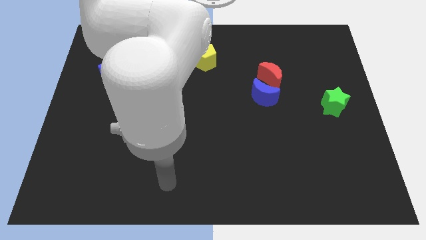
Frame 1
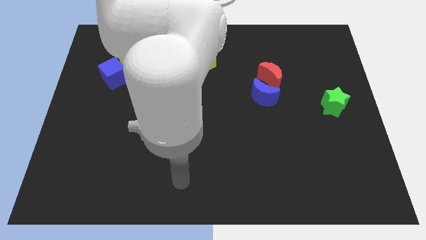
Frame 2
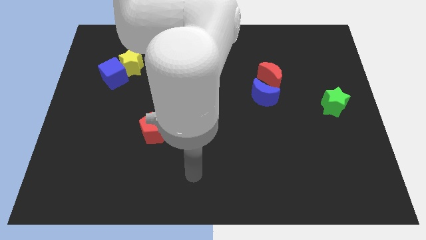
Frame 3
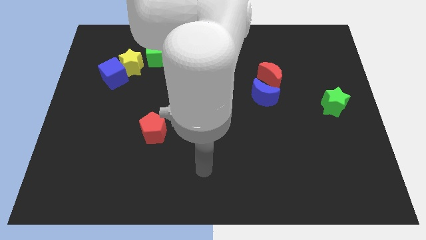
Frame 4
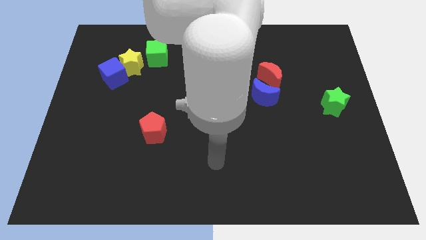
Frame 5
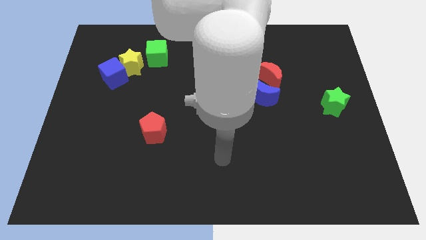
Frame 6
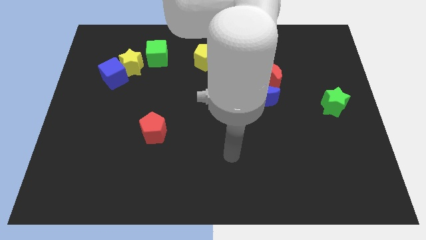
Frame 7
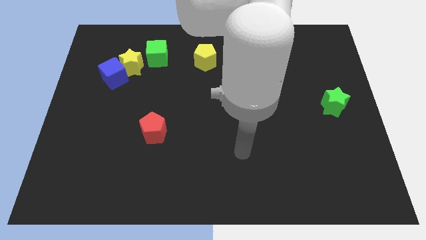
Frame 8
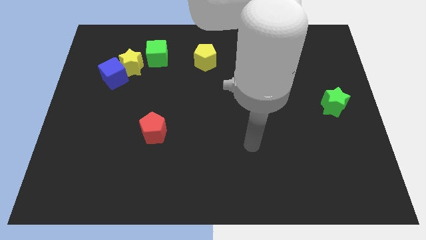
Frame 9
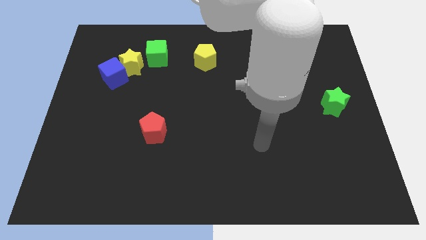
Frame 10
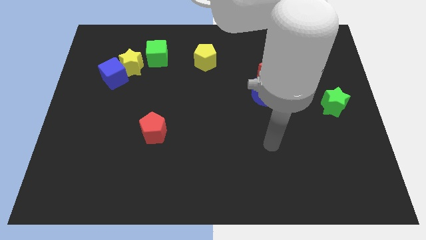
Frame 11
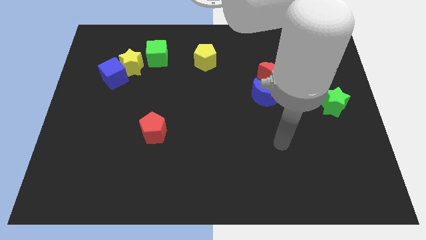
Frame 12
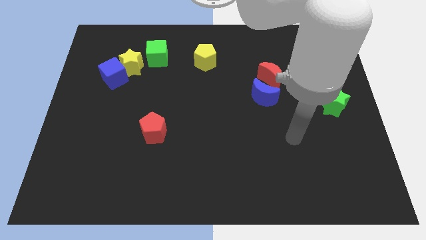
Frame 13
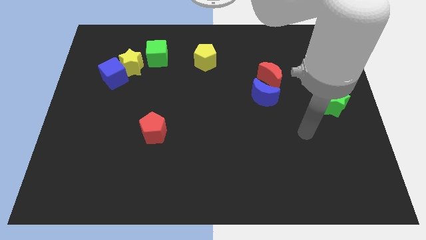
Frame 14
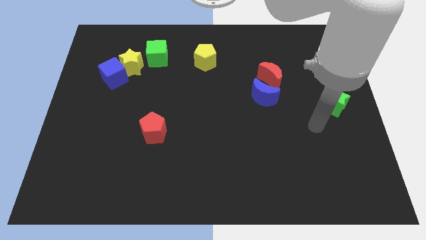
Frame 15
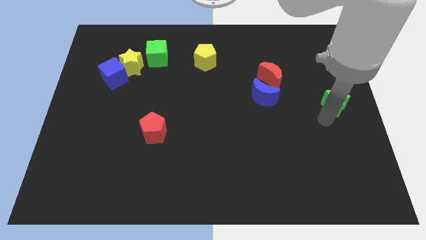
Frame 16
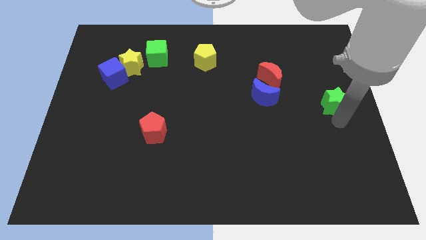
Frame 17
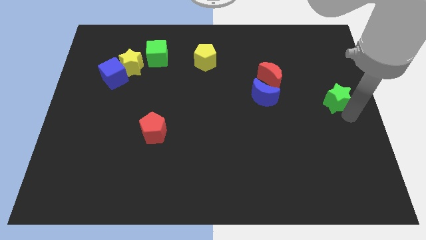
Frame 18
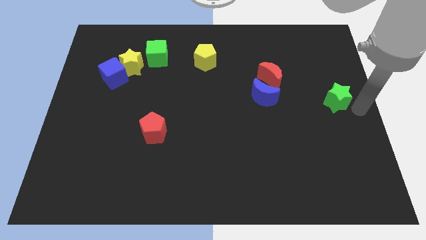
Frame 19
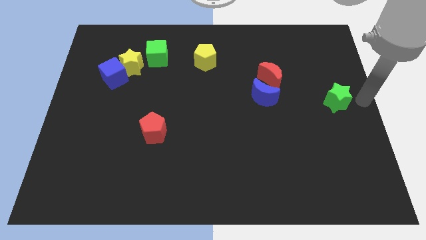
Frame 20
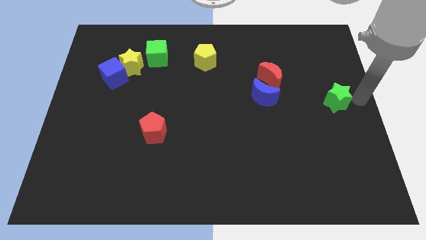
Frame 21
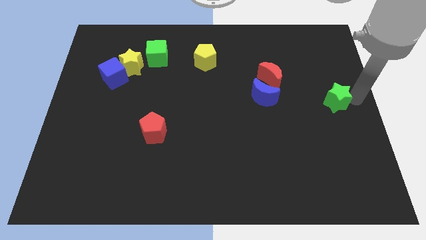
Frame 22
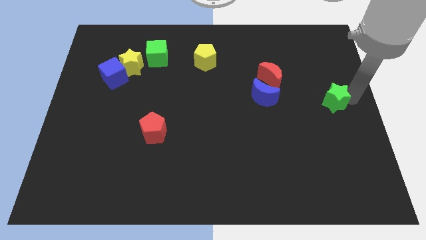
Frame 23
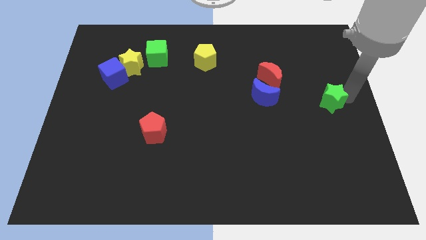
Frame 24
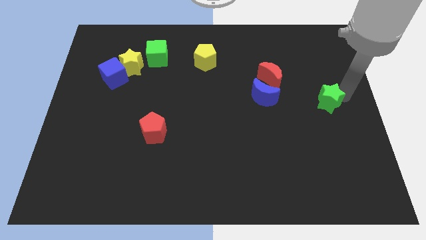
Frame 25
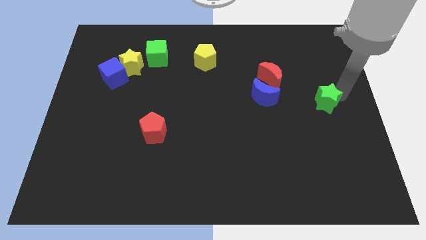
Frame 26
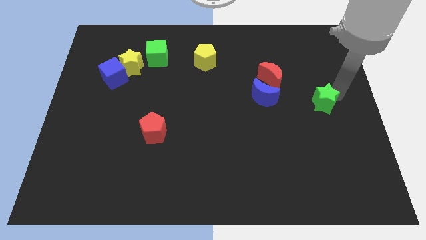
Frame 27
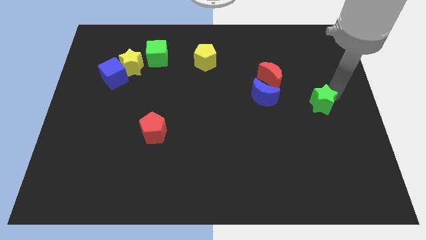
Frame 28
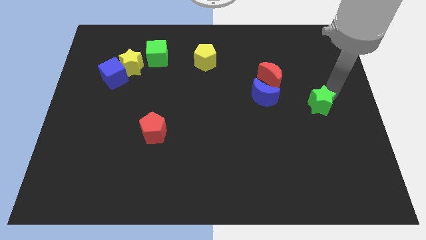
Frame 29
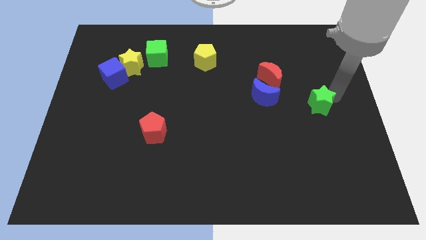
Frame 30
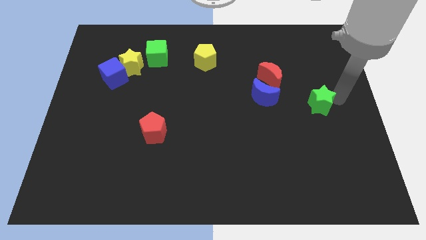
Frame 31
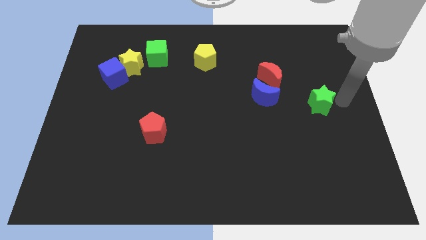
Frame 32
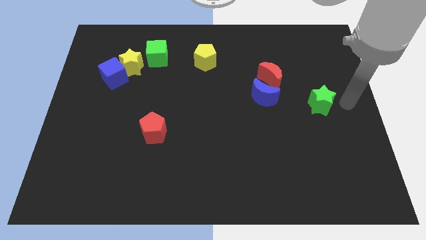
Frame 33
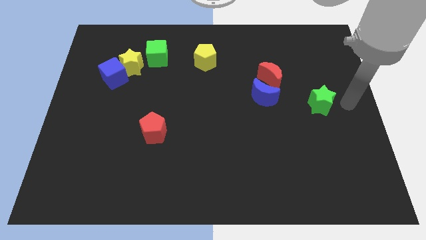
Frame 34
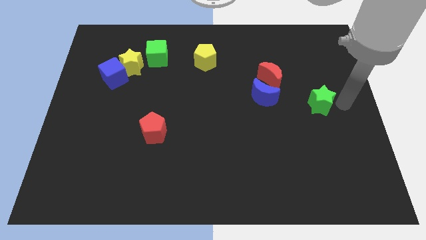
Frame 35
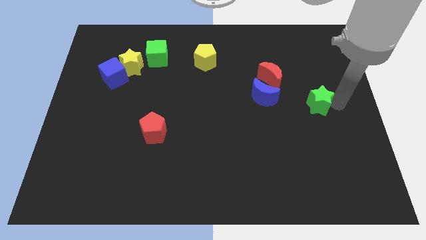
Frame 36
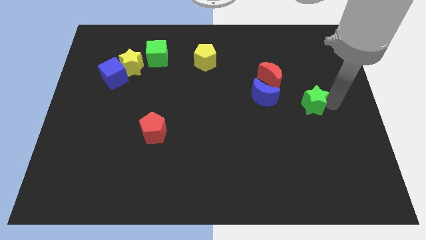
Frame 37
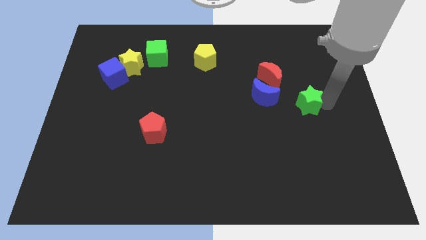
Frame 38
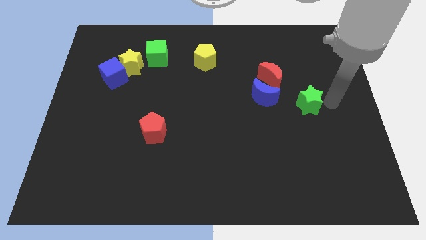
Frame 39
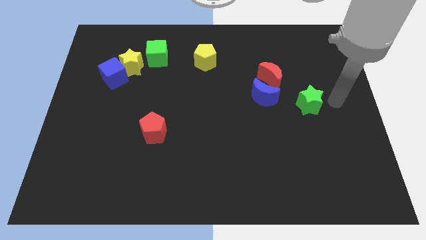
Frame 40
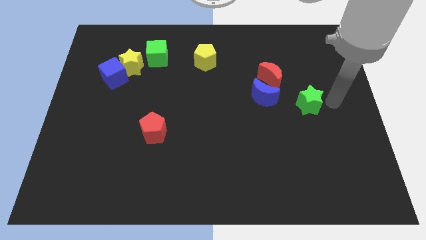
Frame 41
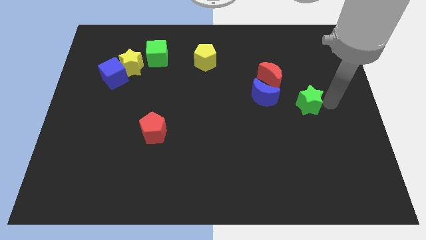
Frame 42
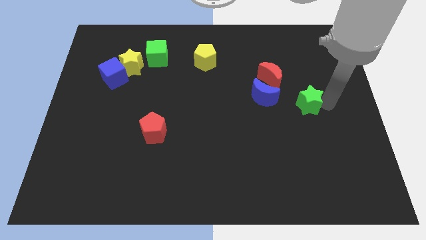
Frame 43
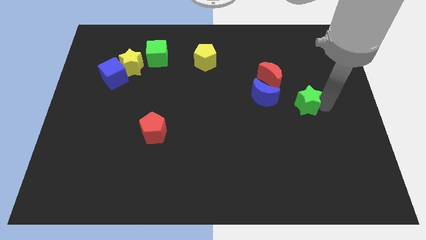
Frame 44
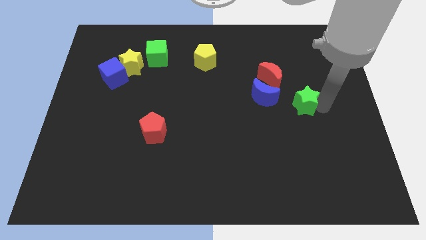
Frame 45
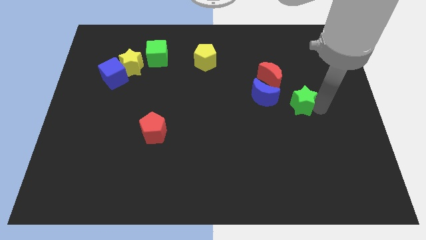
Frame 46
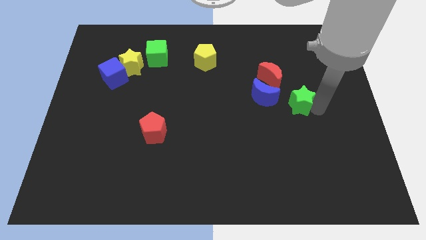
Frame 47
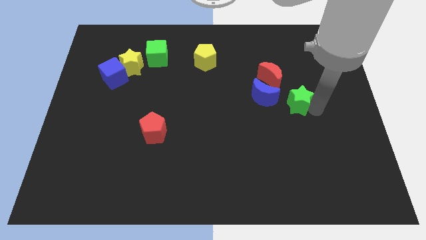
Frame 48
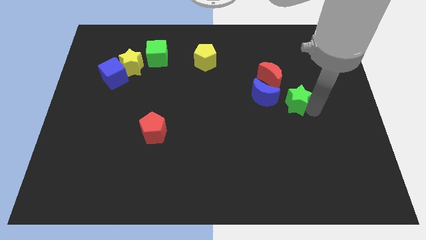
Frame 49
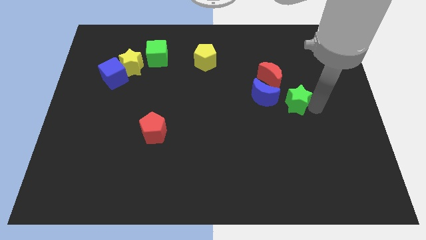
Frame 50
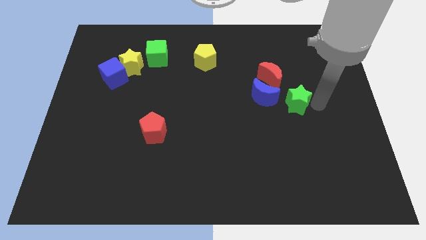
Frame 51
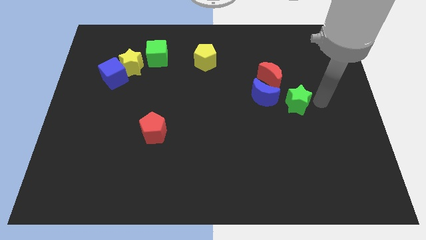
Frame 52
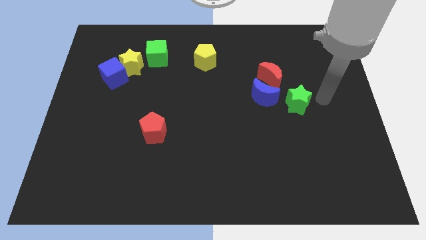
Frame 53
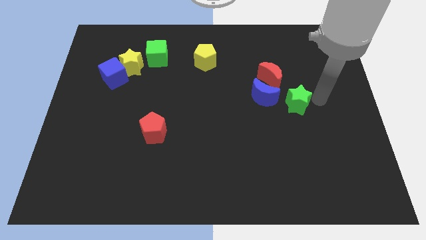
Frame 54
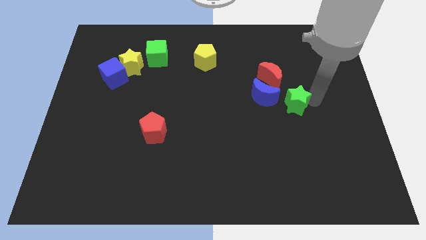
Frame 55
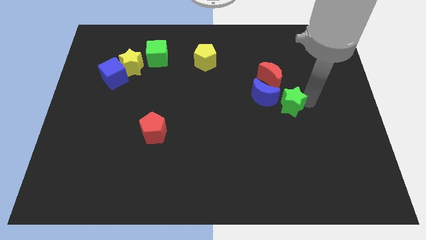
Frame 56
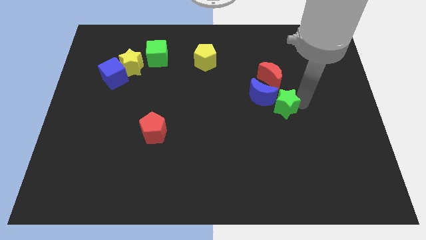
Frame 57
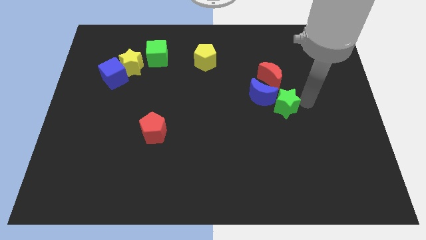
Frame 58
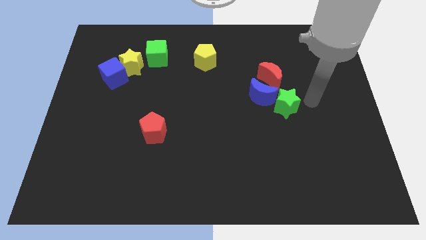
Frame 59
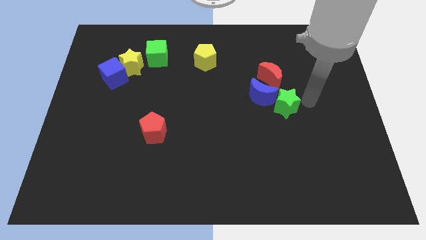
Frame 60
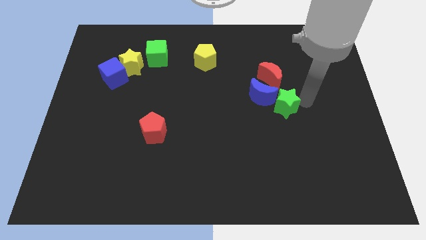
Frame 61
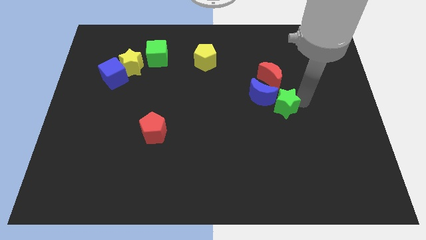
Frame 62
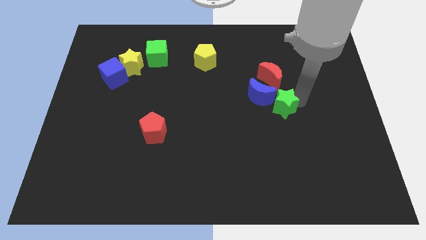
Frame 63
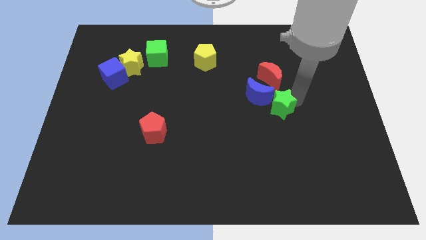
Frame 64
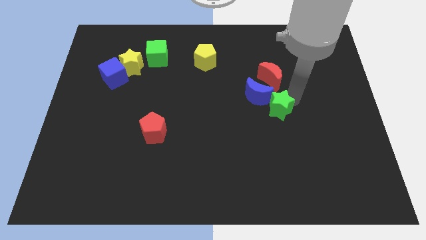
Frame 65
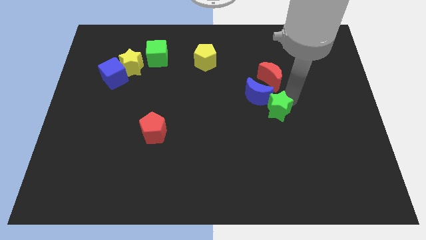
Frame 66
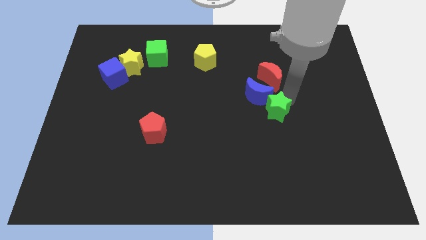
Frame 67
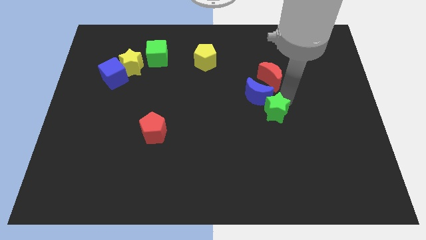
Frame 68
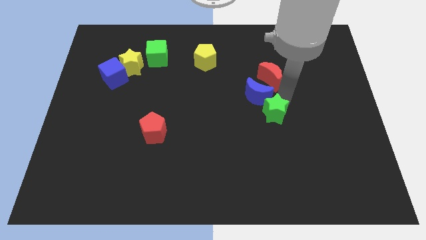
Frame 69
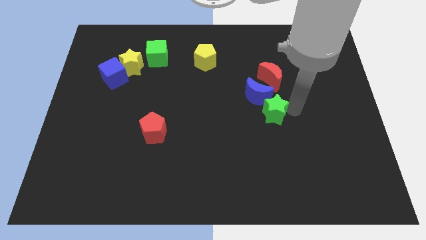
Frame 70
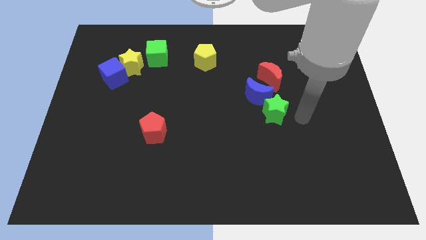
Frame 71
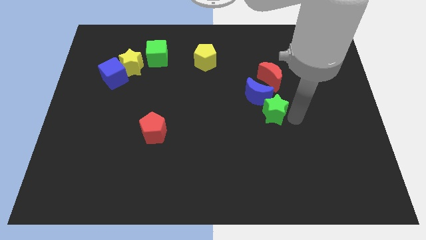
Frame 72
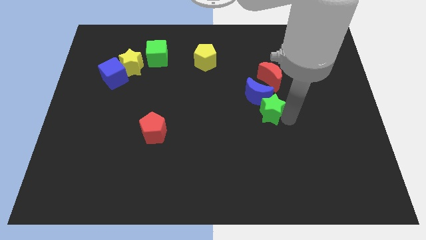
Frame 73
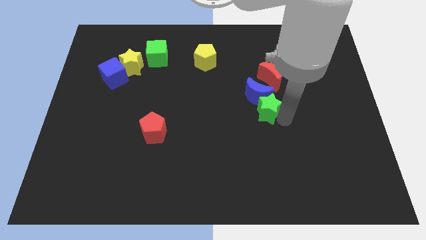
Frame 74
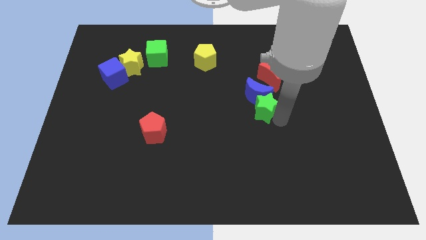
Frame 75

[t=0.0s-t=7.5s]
put the green star to the center of the board
